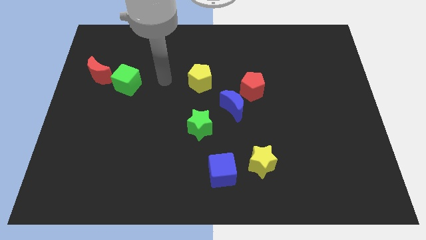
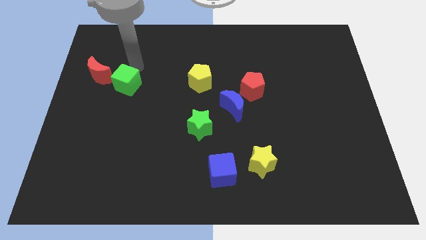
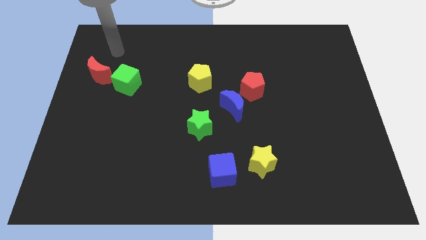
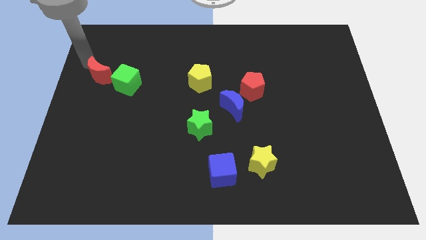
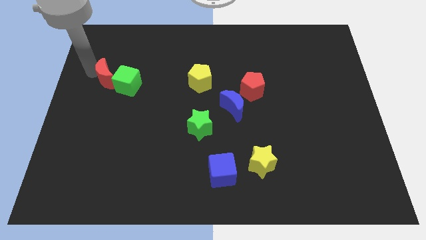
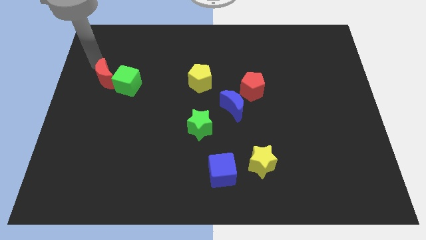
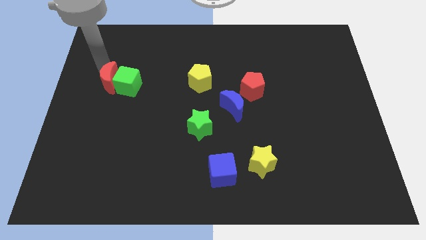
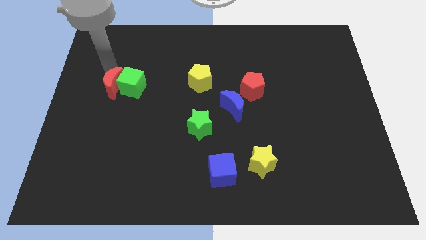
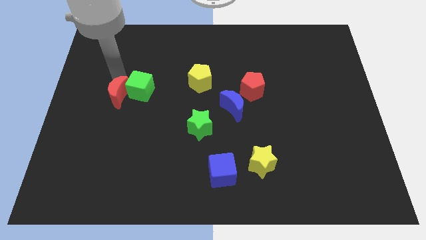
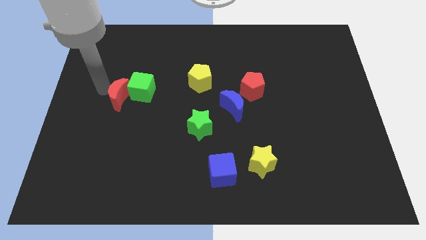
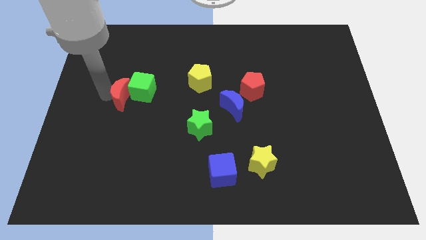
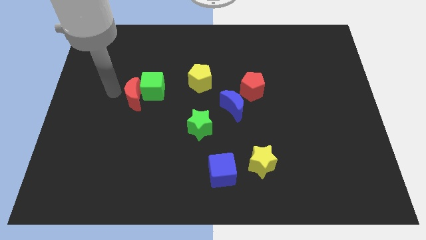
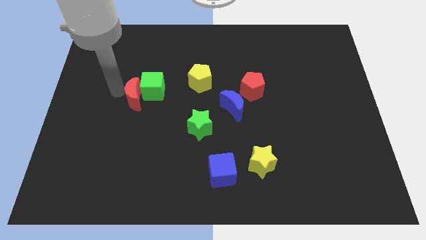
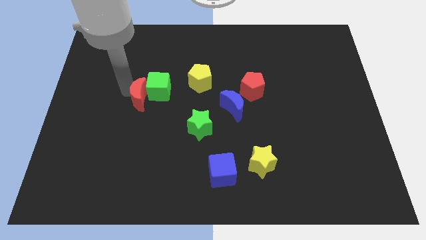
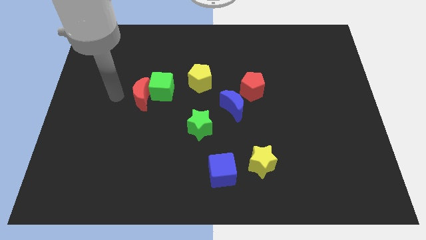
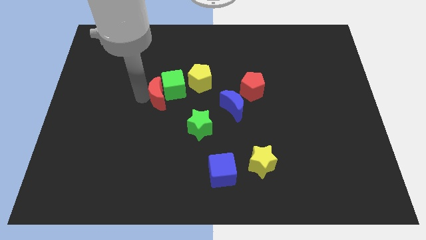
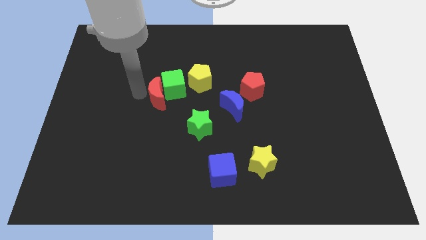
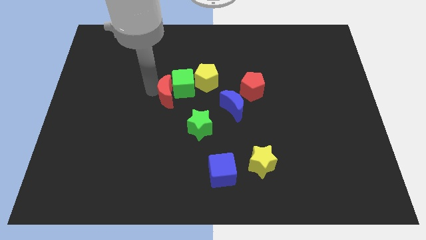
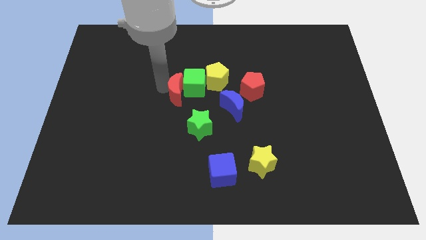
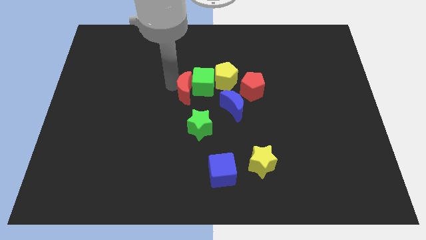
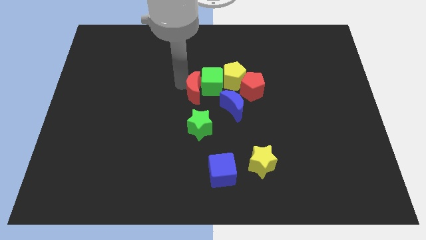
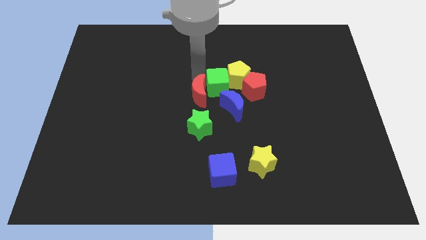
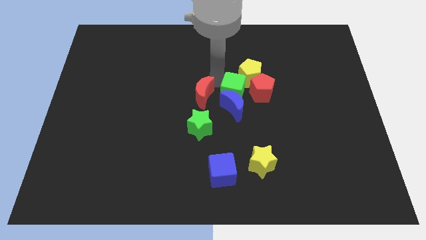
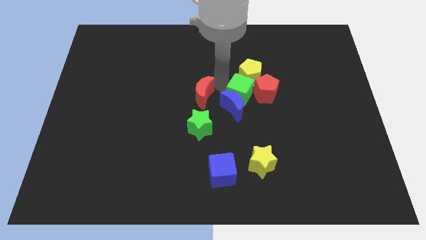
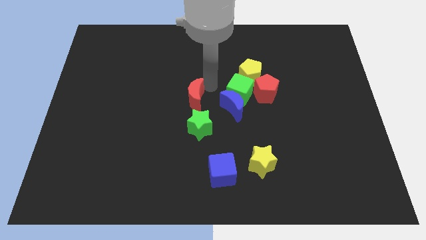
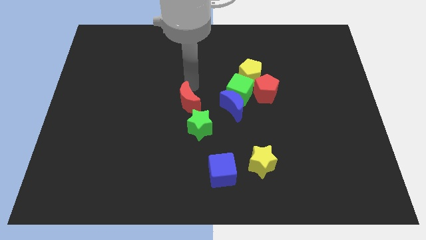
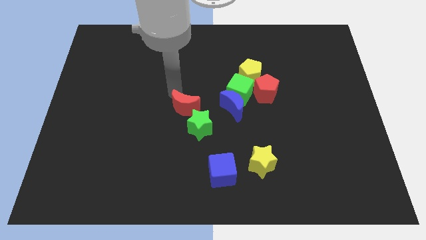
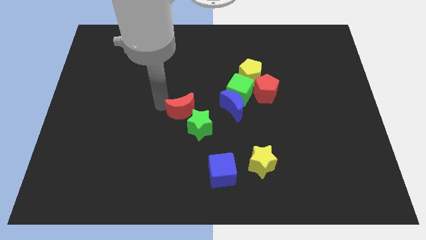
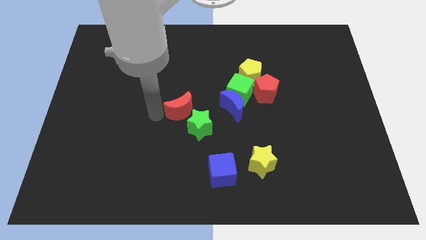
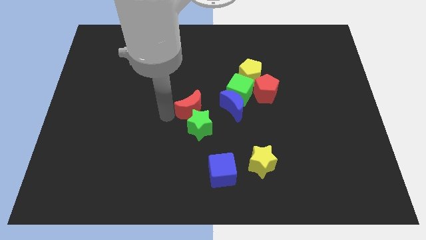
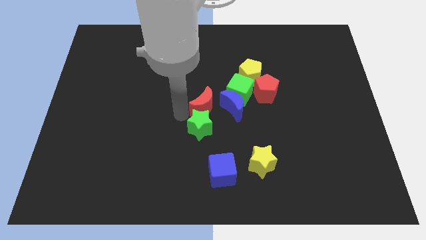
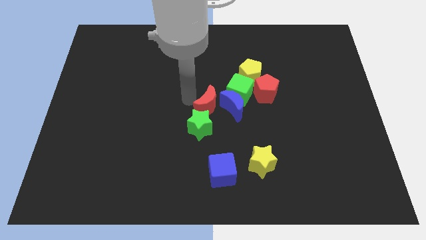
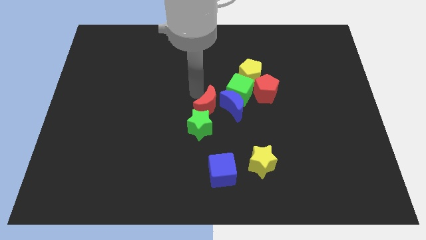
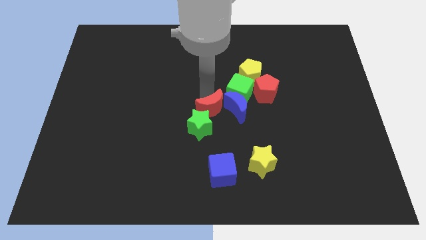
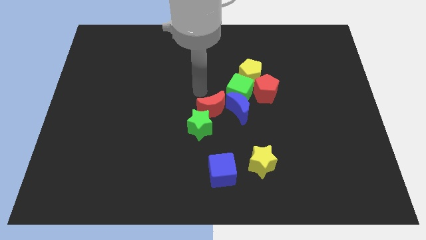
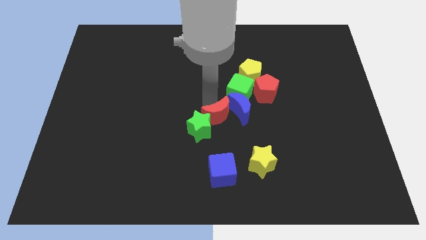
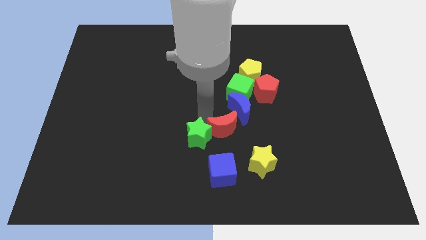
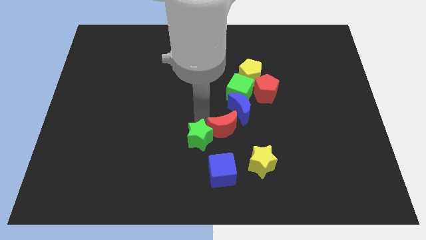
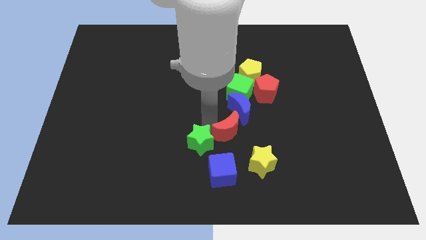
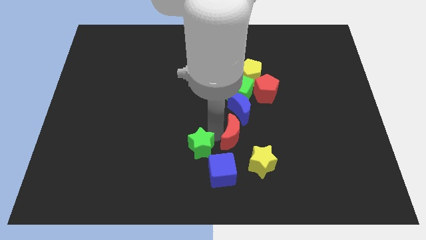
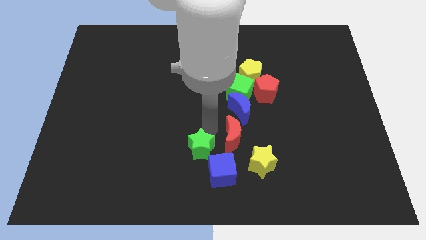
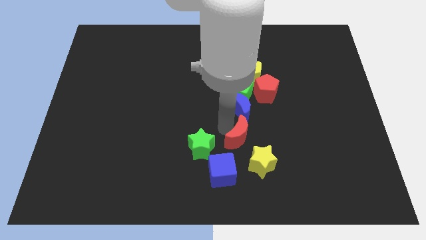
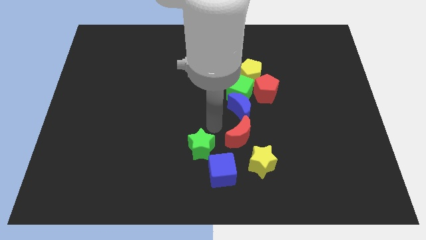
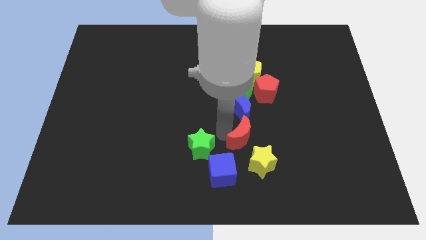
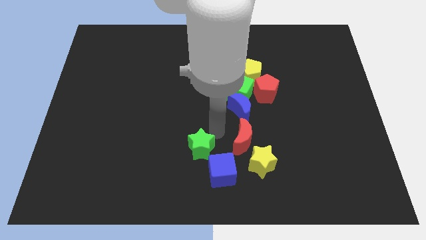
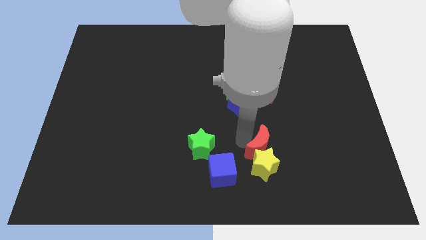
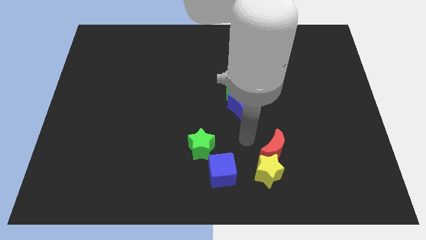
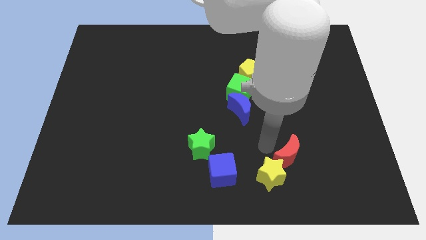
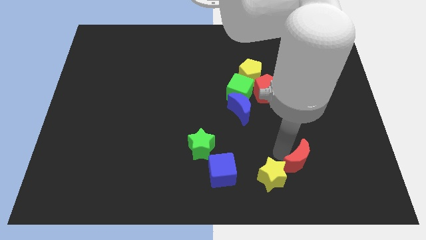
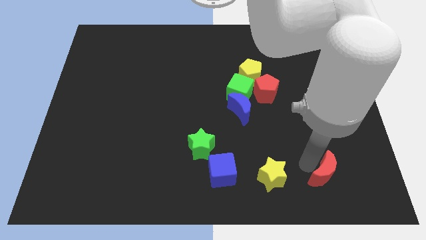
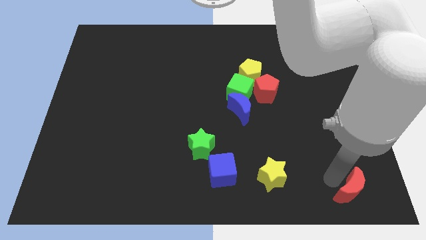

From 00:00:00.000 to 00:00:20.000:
move the red moon to the bottom right corner

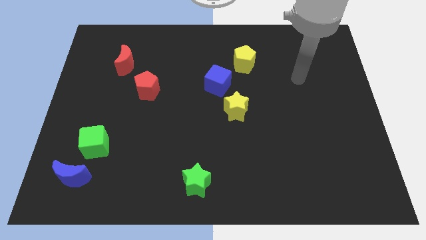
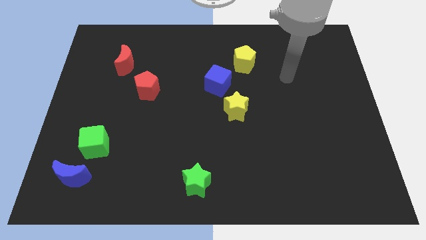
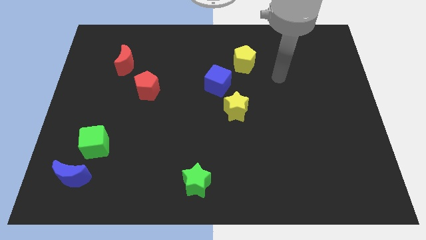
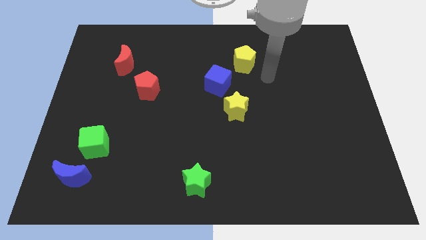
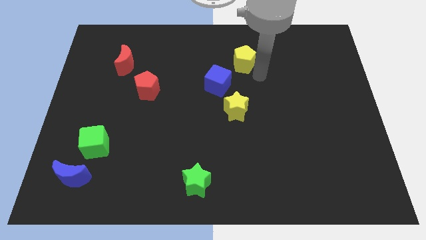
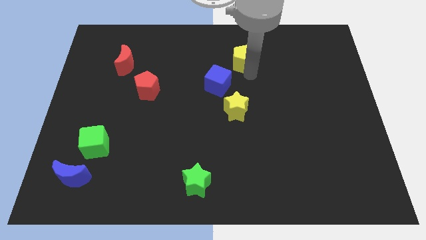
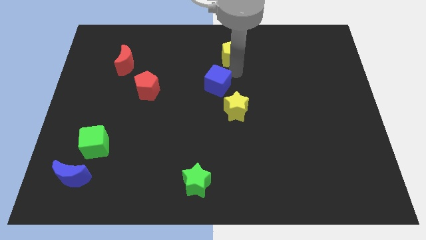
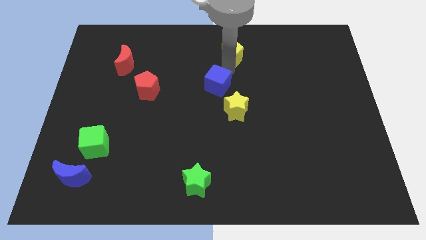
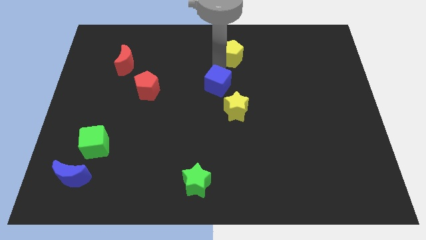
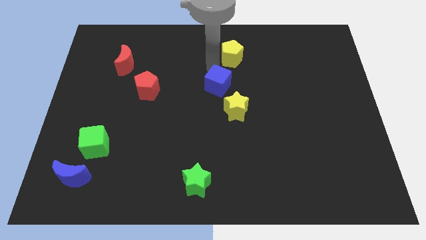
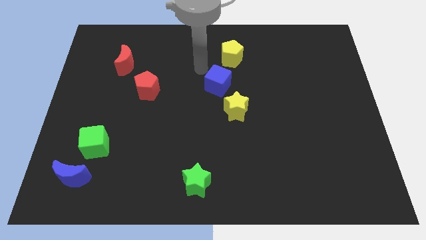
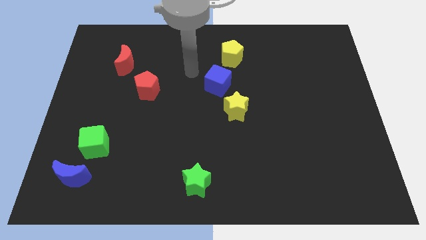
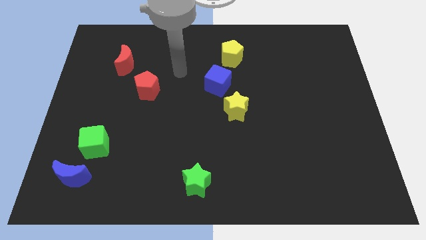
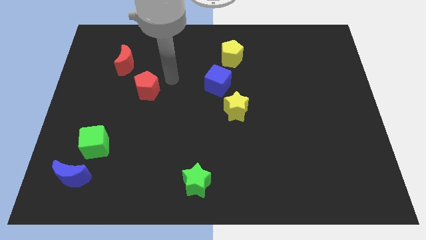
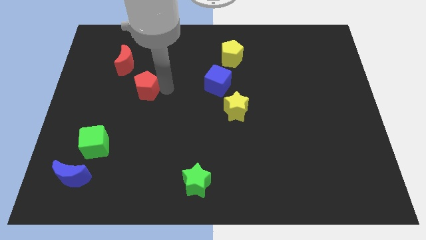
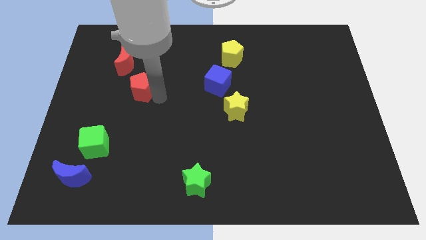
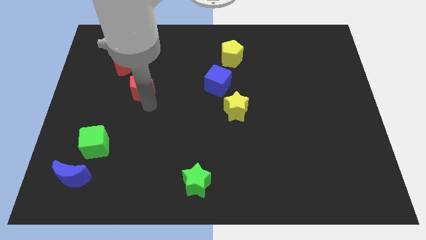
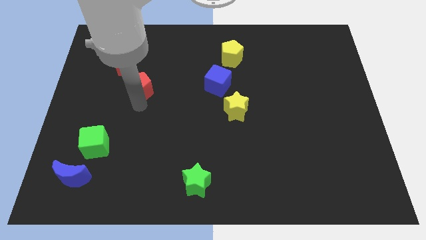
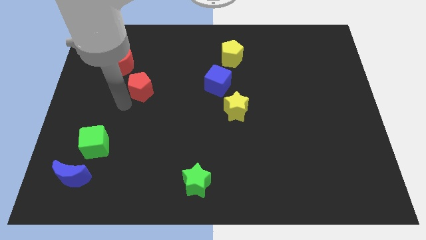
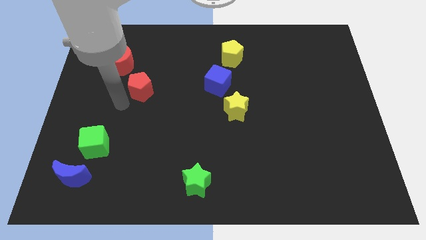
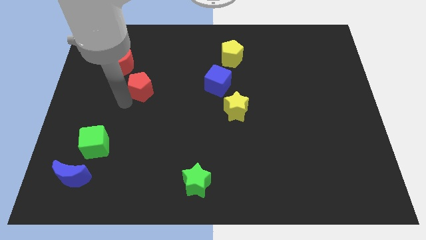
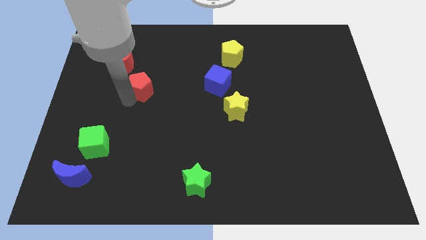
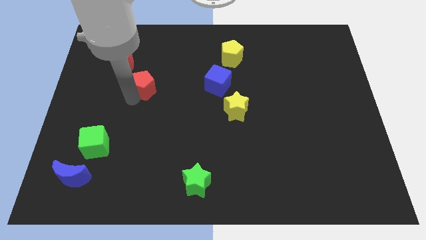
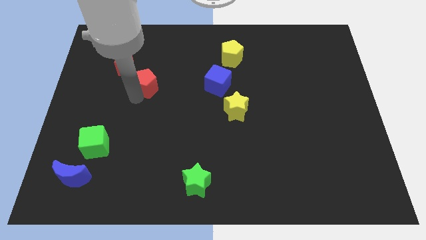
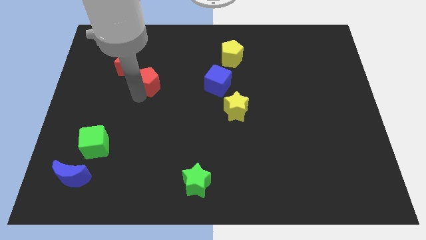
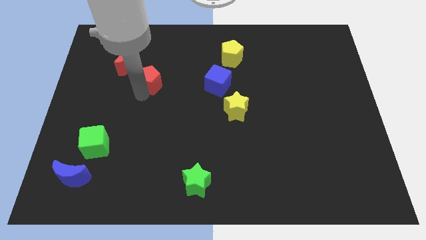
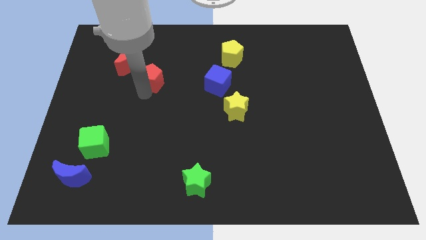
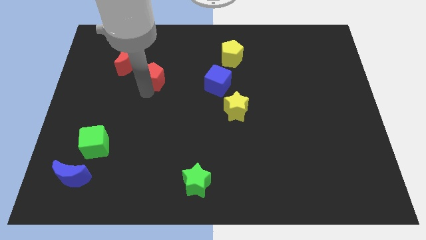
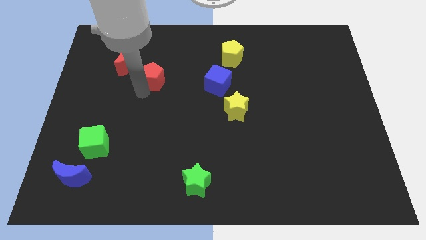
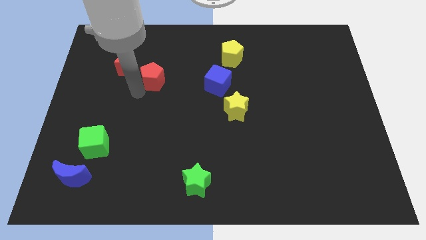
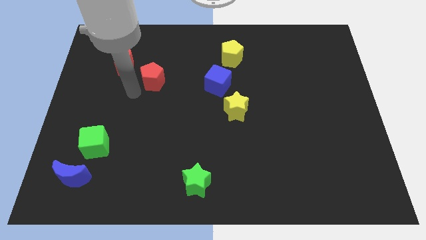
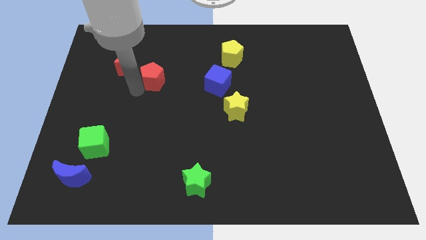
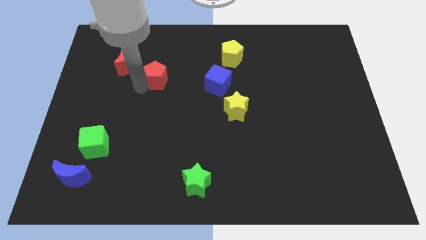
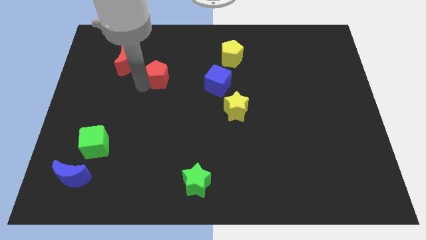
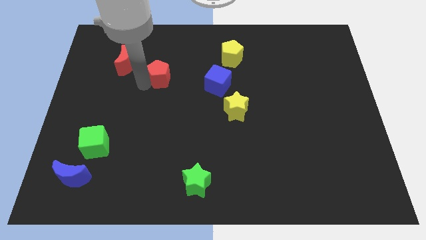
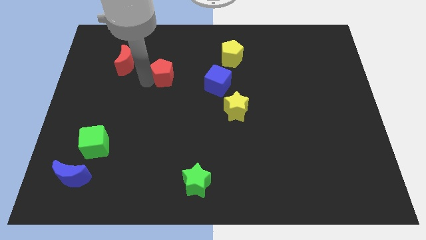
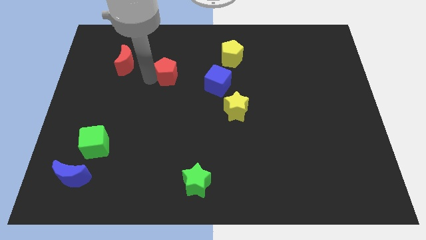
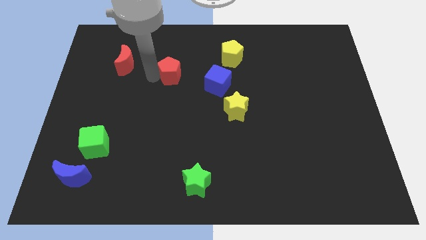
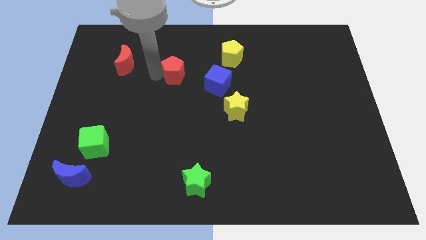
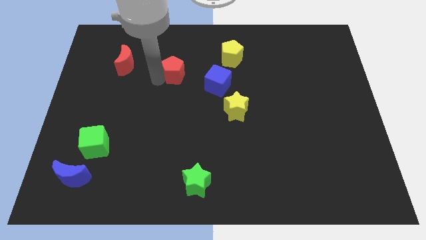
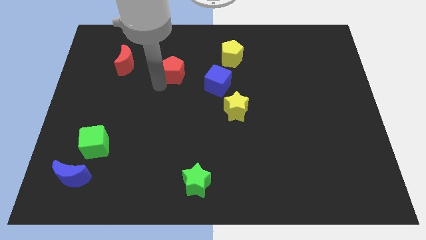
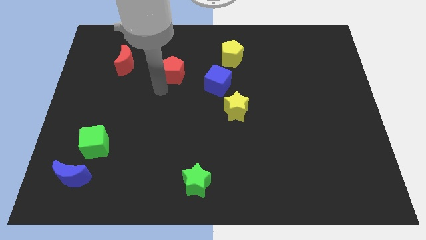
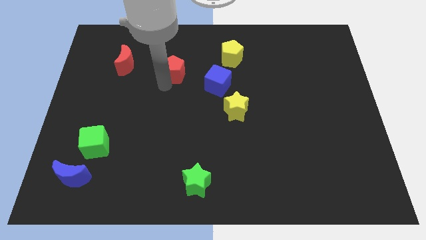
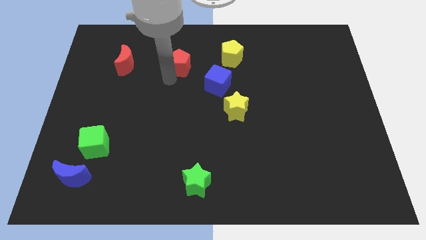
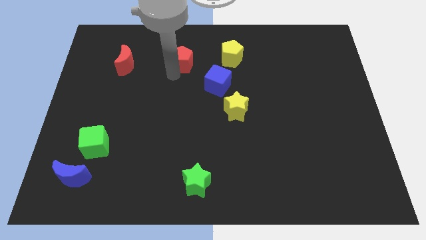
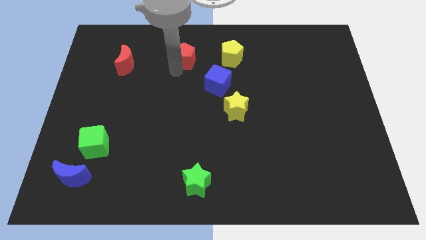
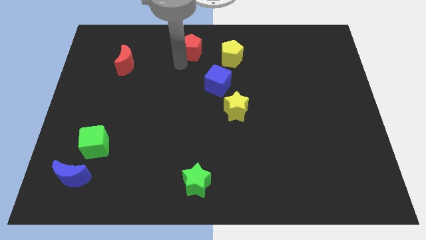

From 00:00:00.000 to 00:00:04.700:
move the red pentagon to the top side
